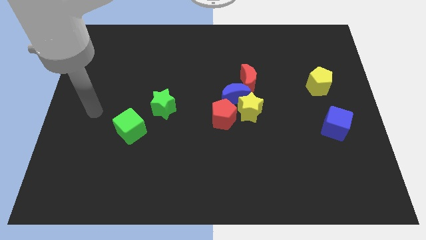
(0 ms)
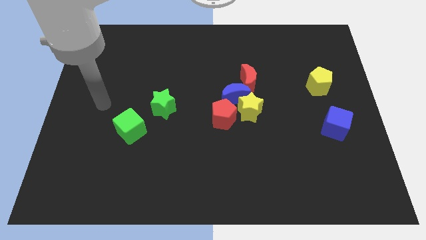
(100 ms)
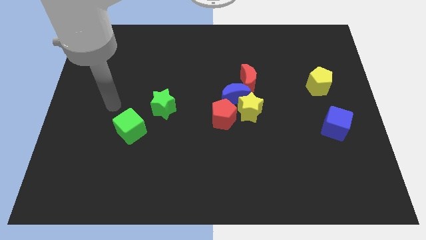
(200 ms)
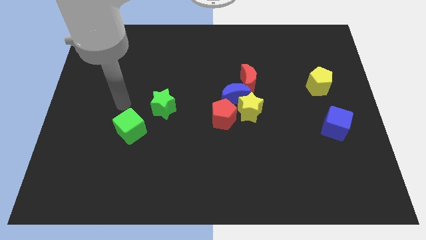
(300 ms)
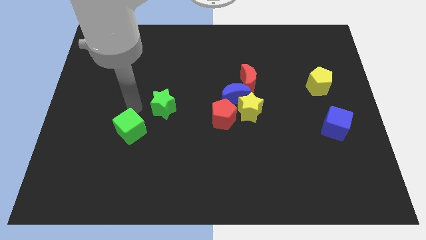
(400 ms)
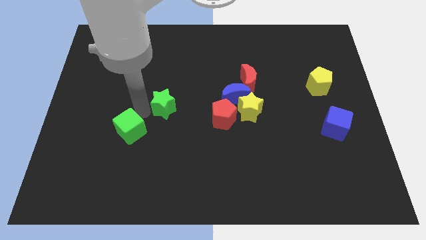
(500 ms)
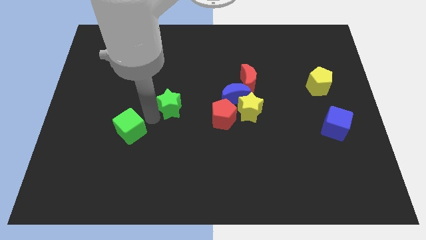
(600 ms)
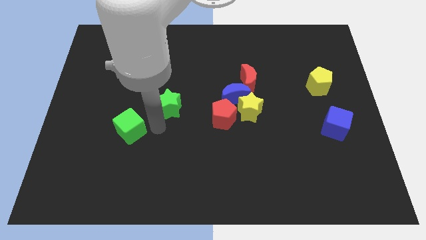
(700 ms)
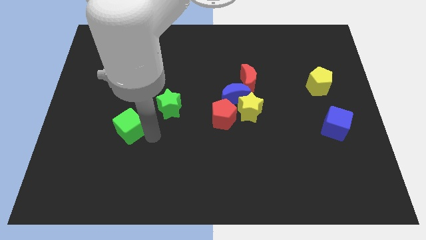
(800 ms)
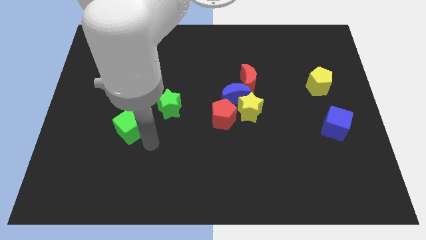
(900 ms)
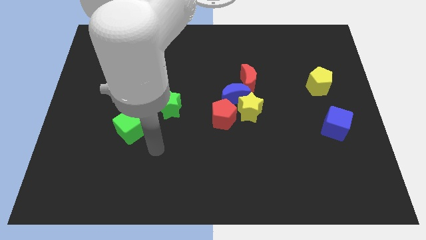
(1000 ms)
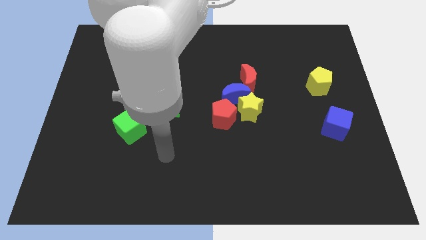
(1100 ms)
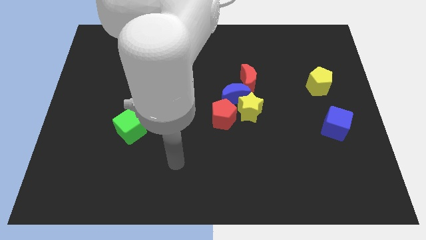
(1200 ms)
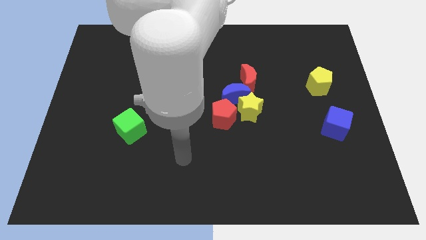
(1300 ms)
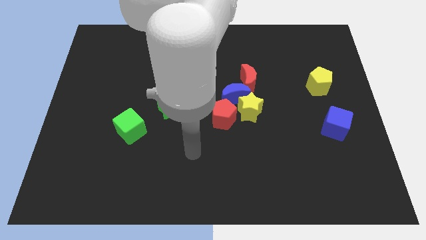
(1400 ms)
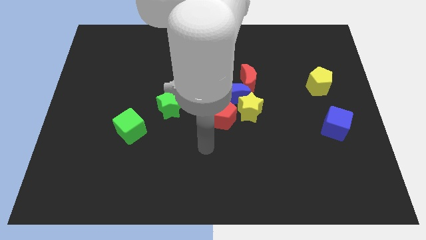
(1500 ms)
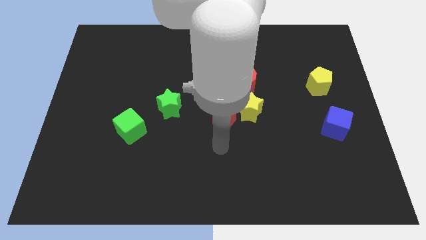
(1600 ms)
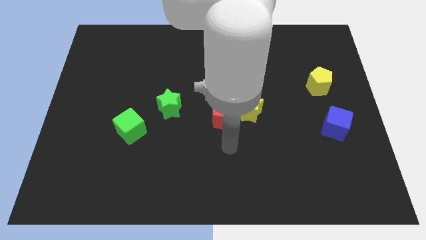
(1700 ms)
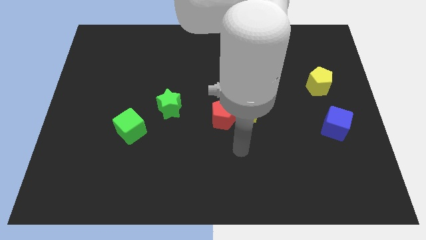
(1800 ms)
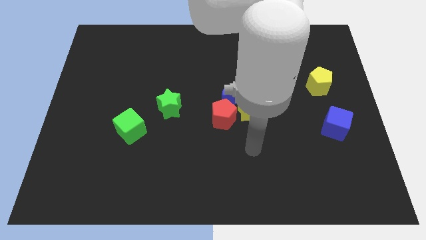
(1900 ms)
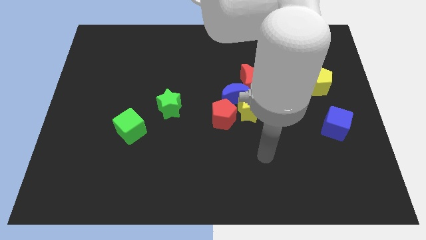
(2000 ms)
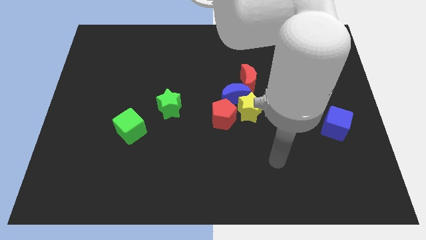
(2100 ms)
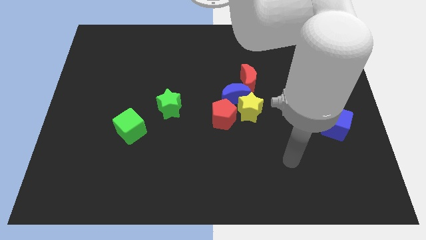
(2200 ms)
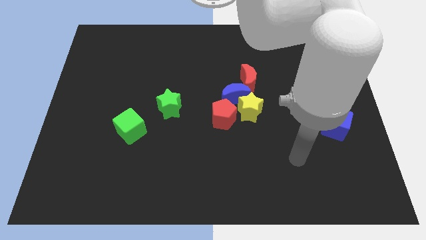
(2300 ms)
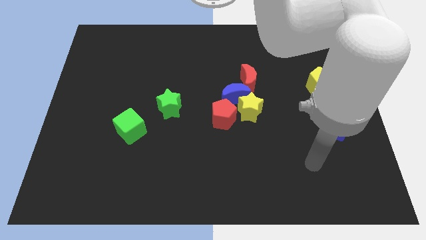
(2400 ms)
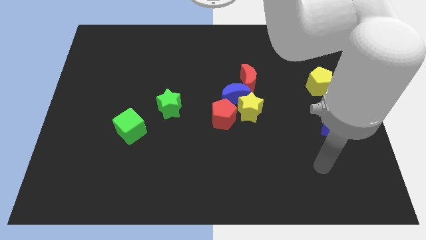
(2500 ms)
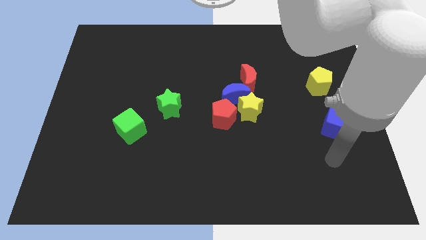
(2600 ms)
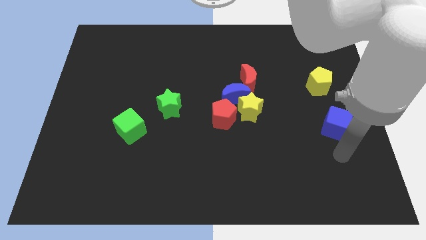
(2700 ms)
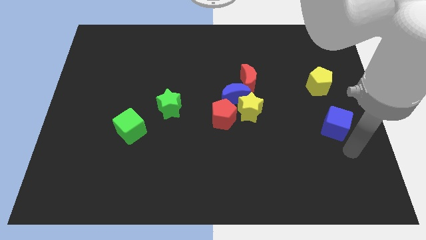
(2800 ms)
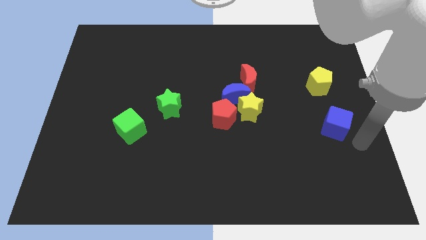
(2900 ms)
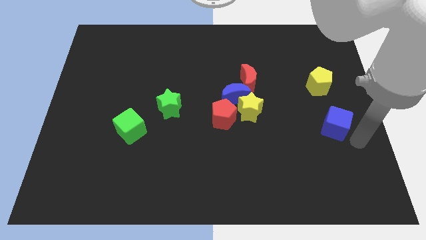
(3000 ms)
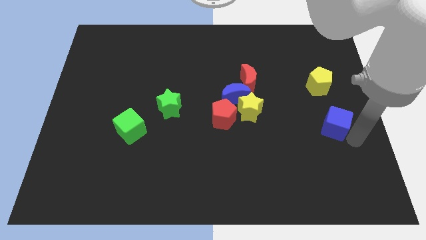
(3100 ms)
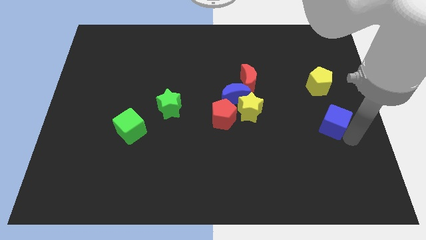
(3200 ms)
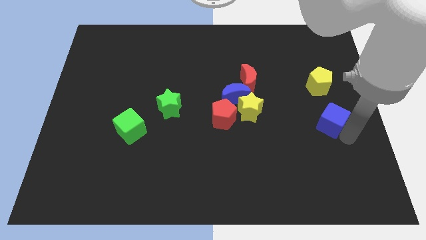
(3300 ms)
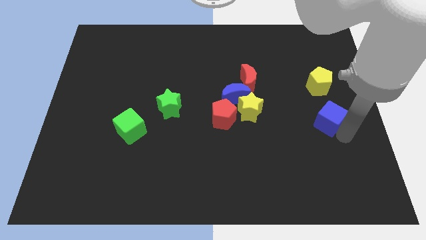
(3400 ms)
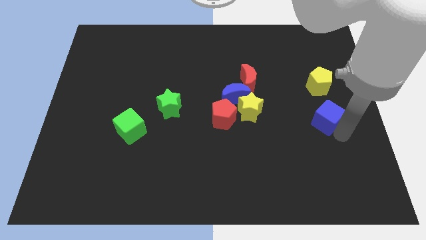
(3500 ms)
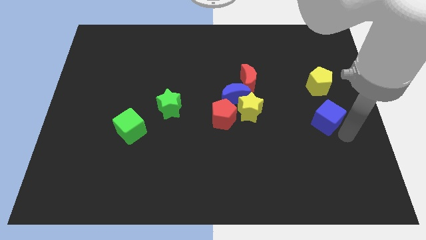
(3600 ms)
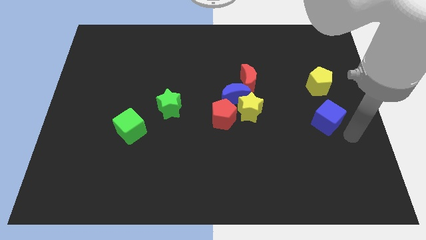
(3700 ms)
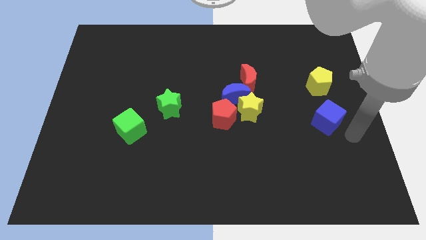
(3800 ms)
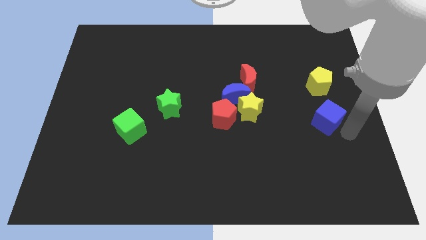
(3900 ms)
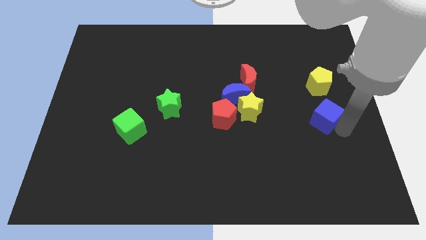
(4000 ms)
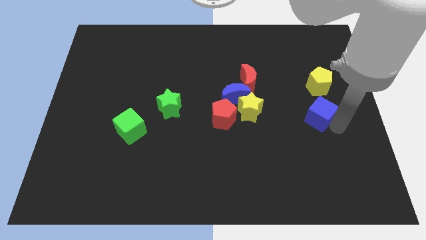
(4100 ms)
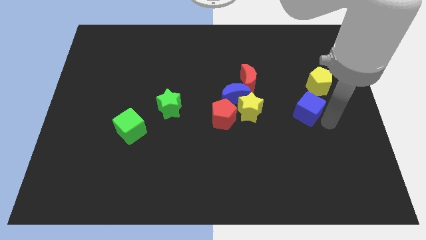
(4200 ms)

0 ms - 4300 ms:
push the blue cube up and left diagonally a little bit

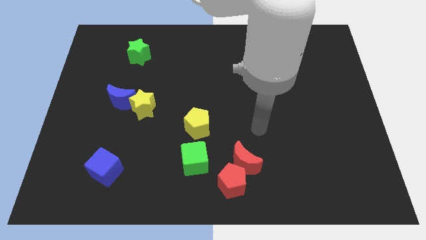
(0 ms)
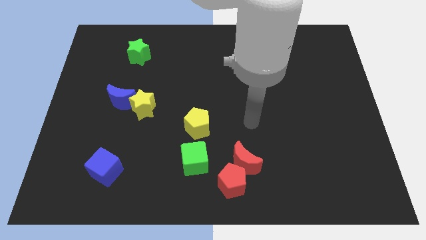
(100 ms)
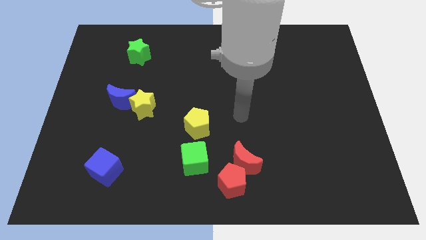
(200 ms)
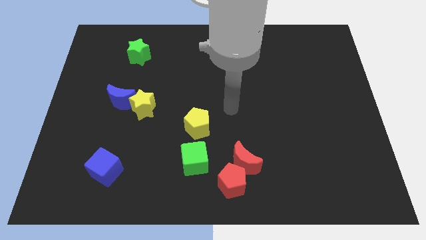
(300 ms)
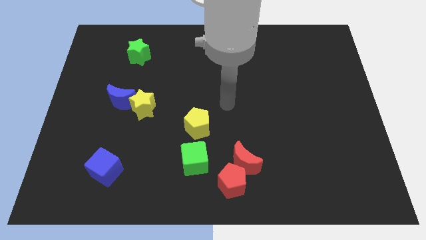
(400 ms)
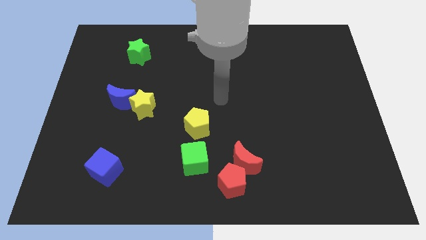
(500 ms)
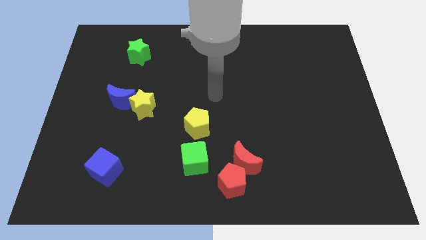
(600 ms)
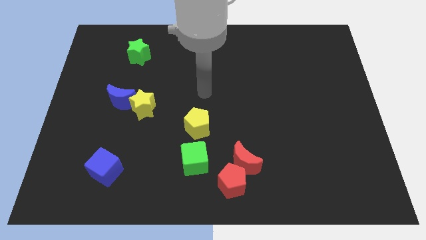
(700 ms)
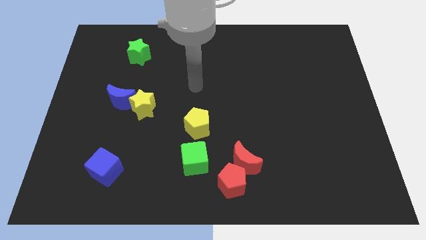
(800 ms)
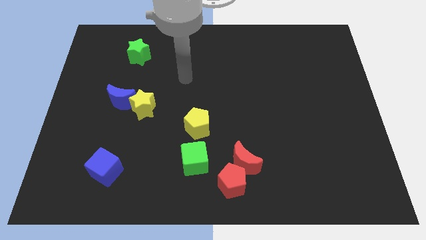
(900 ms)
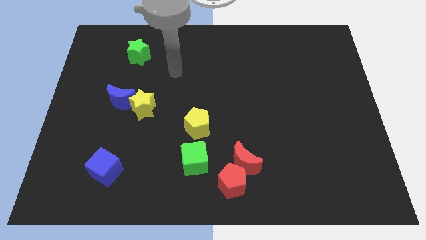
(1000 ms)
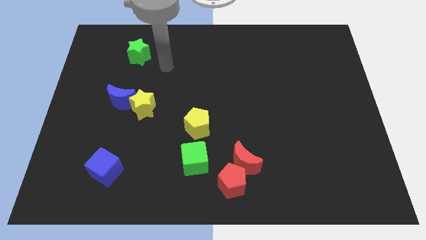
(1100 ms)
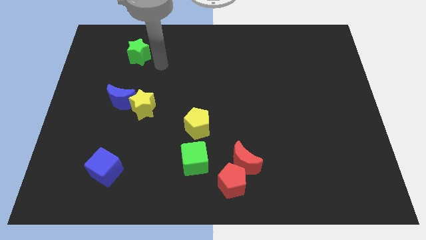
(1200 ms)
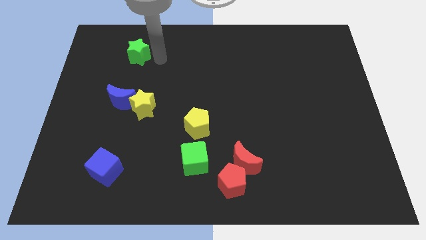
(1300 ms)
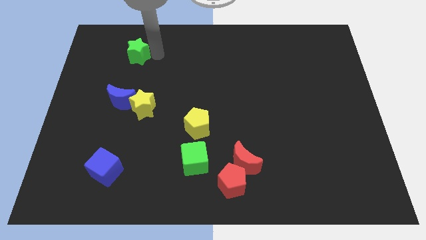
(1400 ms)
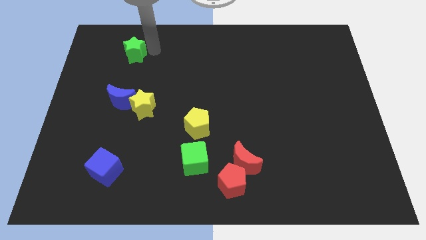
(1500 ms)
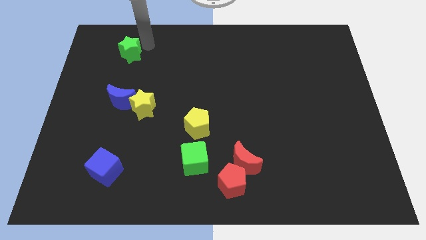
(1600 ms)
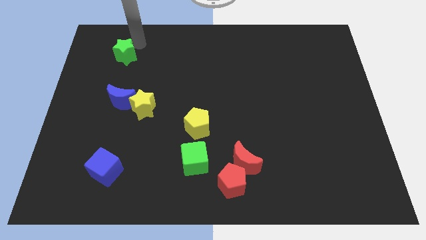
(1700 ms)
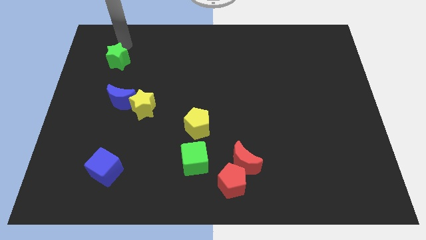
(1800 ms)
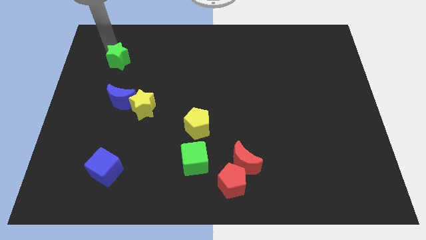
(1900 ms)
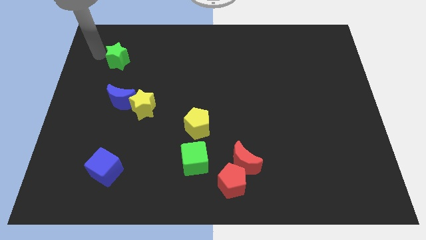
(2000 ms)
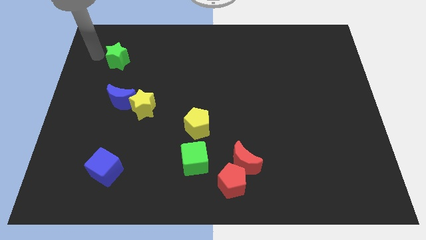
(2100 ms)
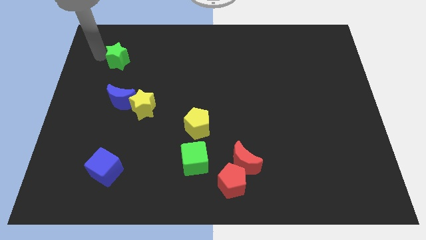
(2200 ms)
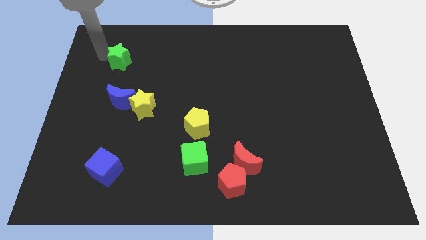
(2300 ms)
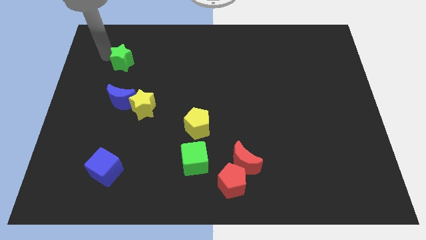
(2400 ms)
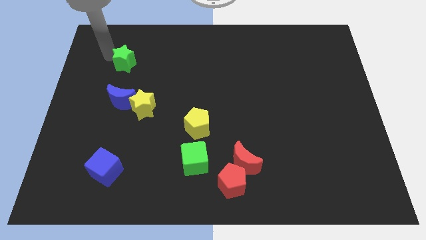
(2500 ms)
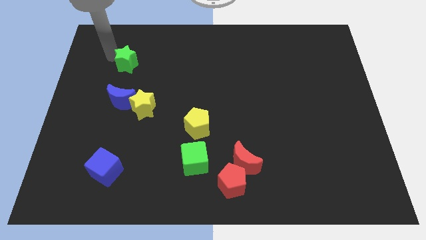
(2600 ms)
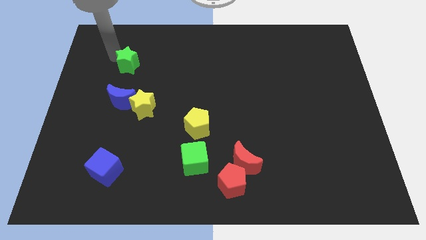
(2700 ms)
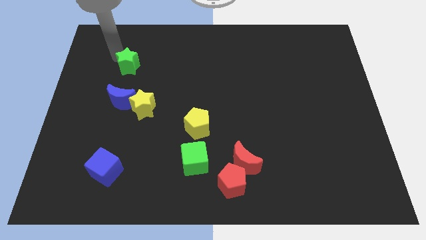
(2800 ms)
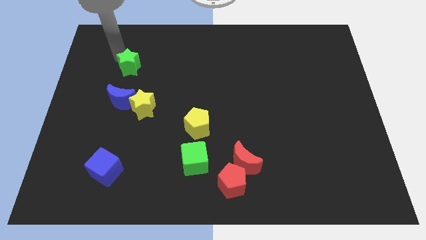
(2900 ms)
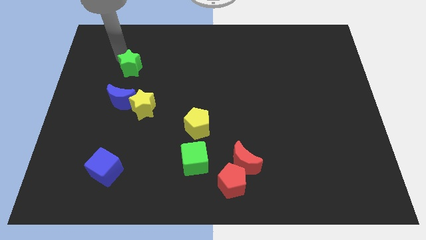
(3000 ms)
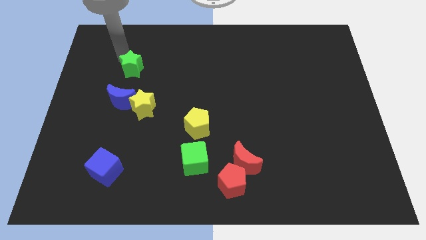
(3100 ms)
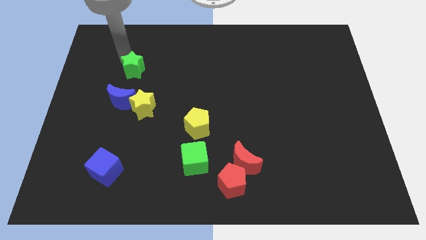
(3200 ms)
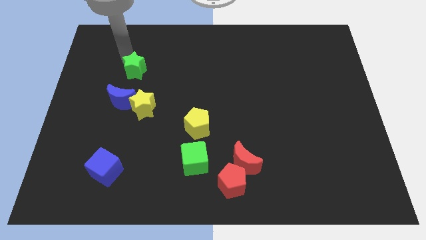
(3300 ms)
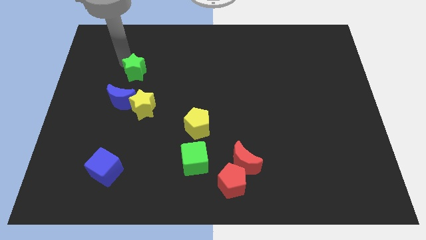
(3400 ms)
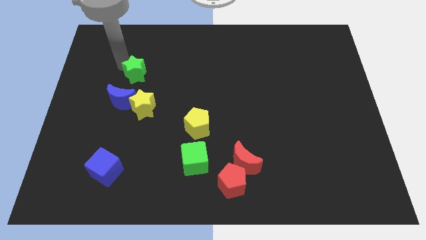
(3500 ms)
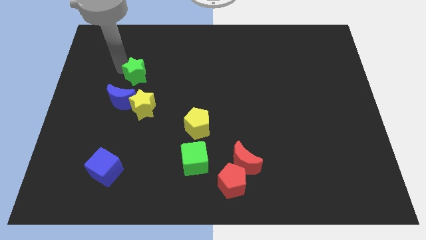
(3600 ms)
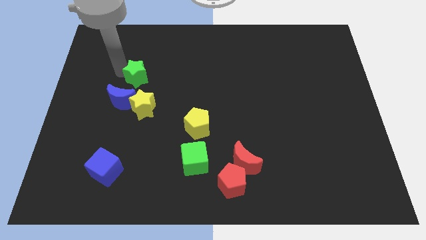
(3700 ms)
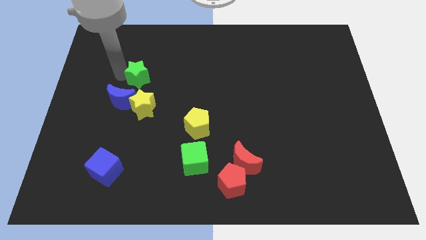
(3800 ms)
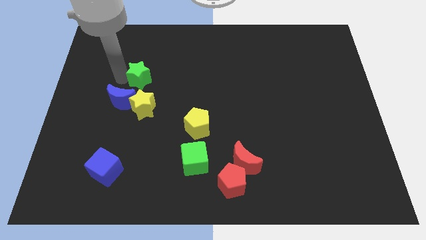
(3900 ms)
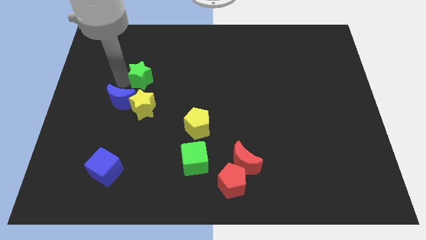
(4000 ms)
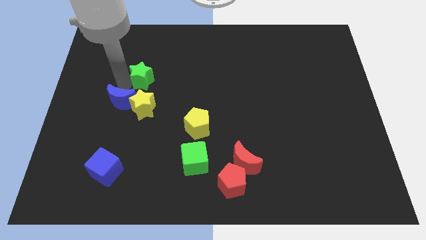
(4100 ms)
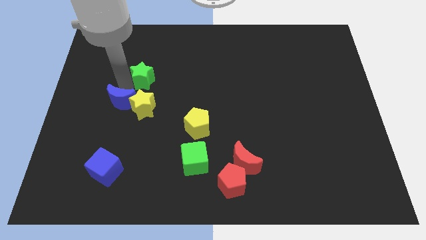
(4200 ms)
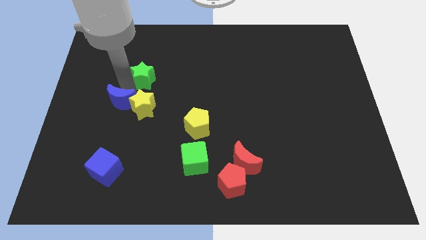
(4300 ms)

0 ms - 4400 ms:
slide the green star down and then right a little bit
